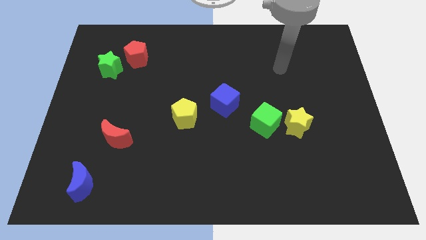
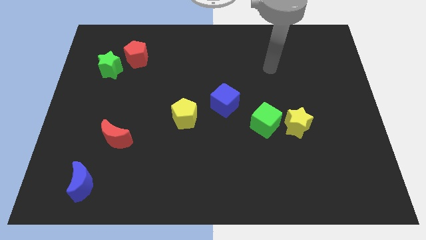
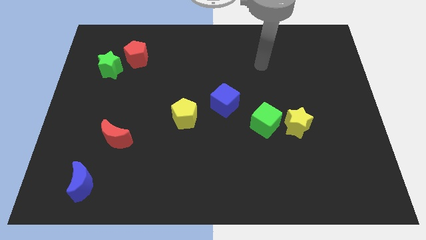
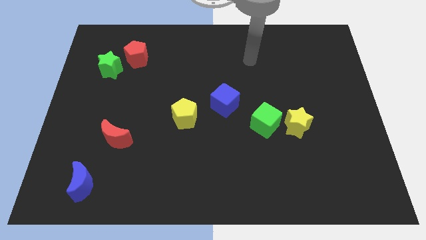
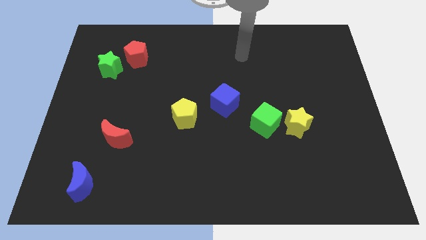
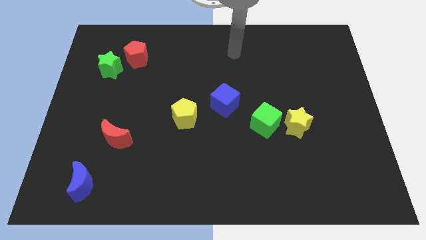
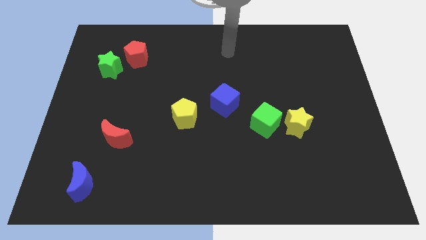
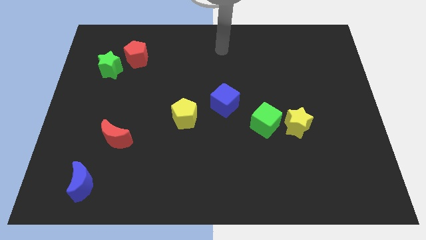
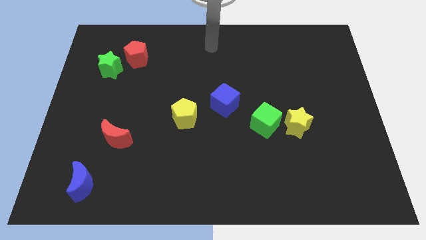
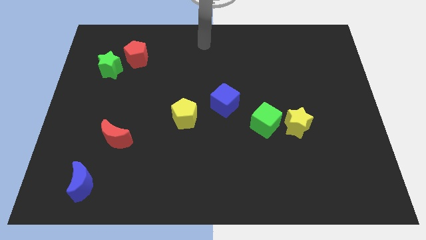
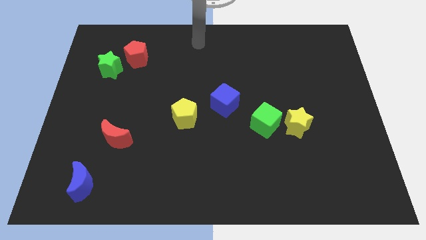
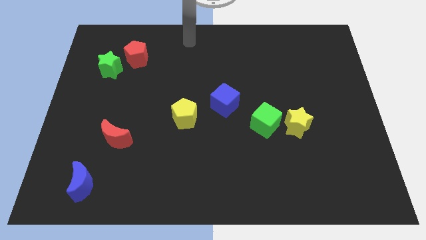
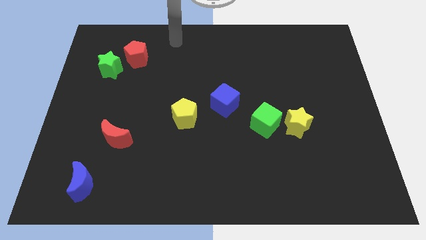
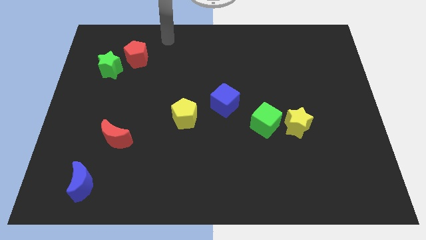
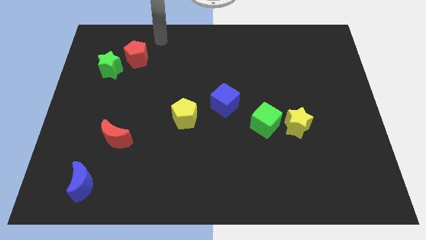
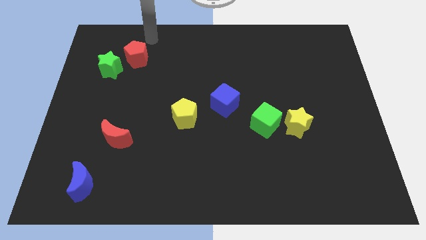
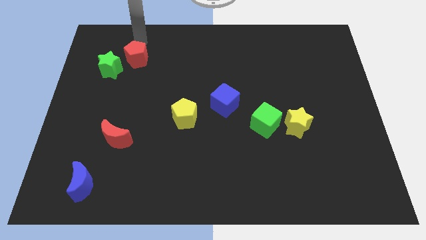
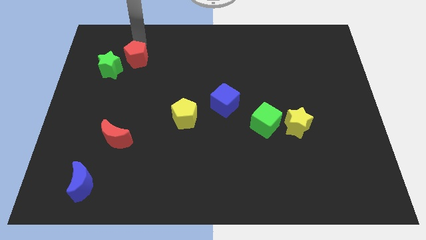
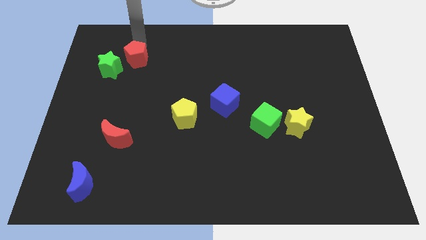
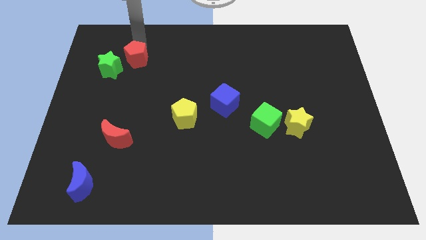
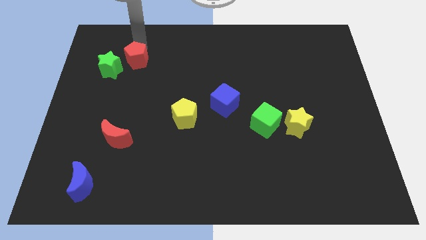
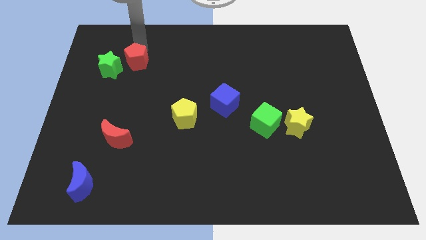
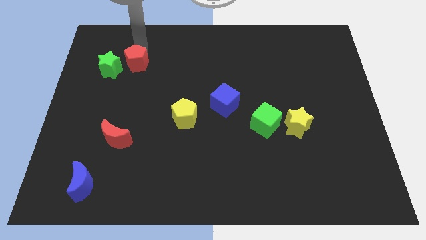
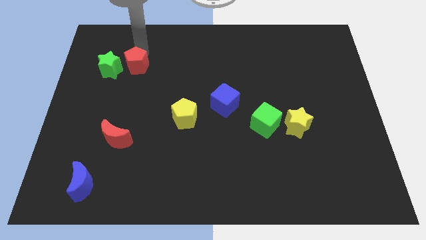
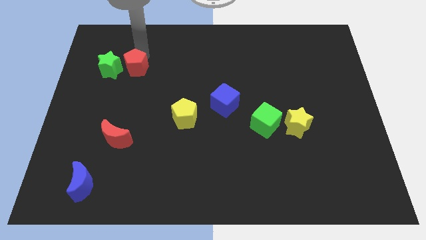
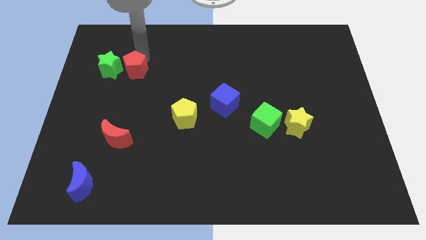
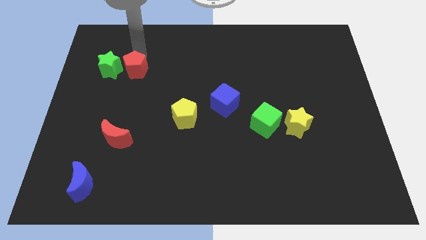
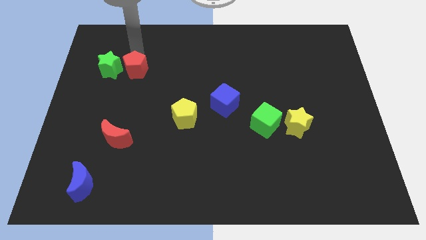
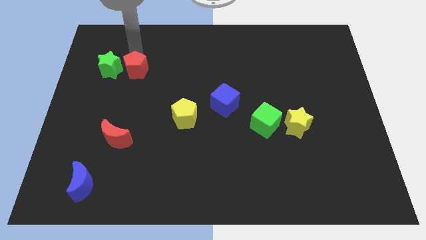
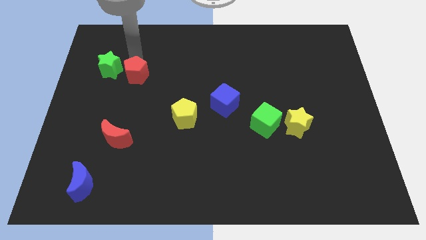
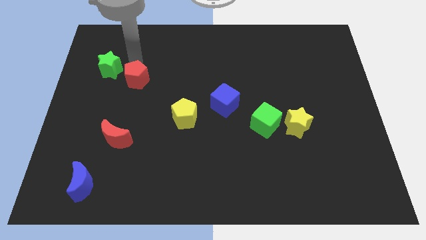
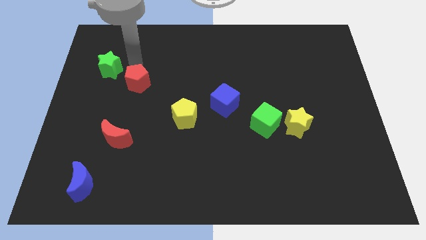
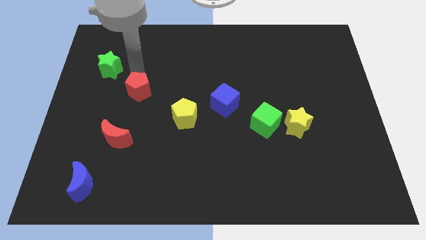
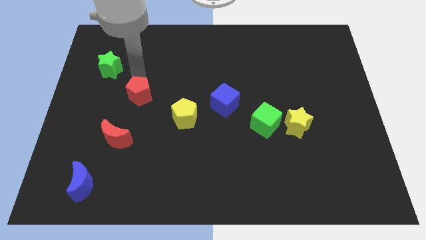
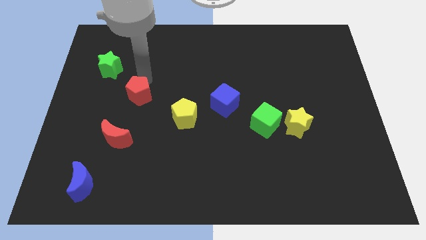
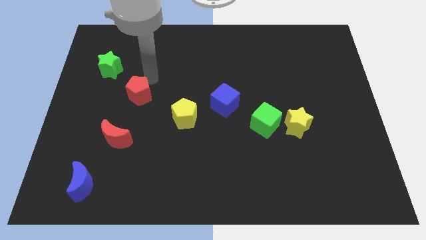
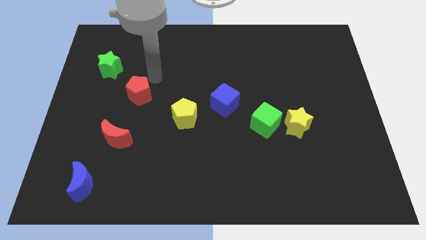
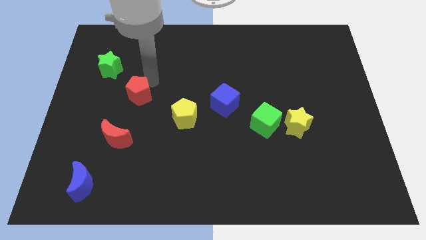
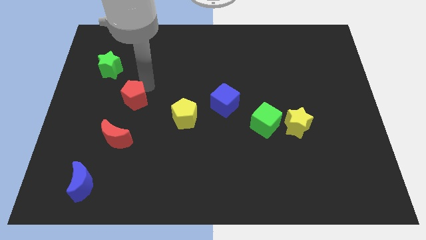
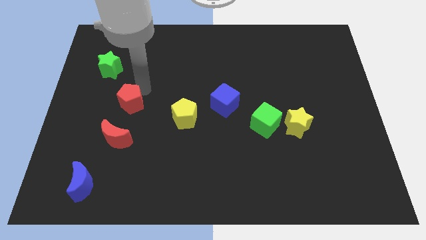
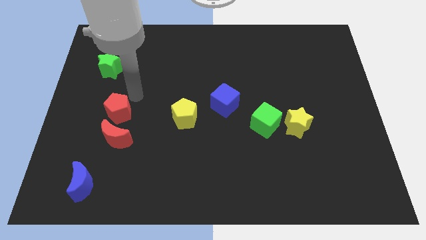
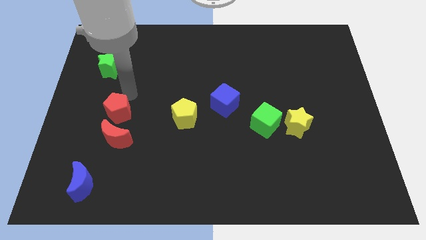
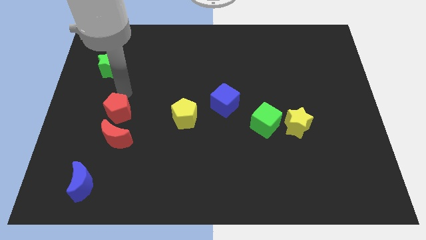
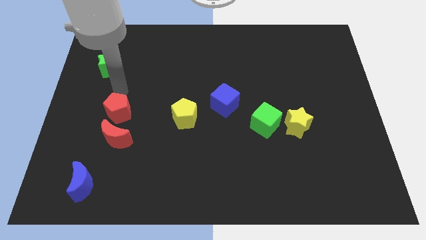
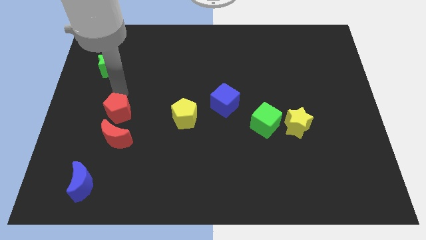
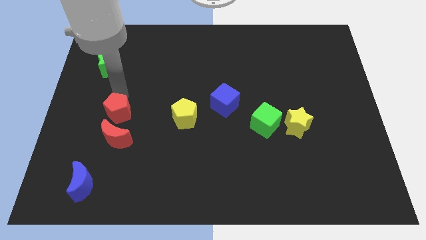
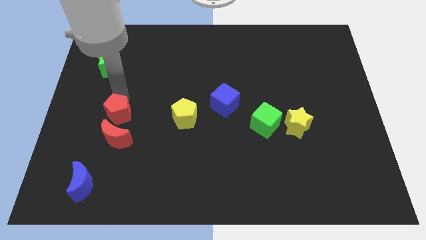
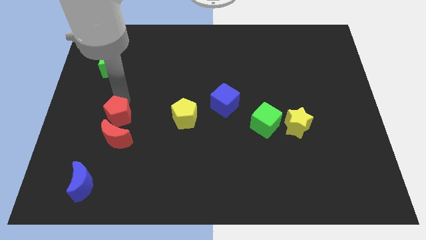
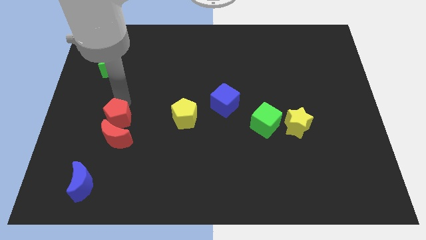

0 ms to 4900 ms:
move the red pentagon towards the red moon

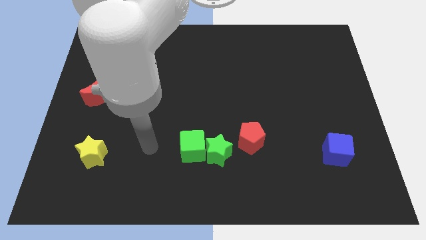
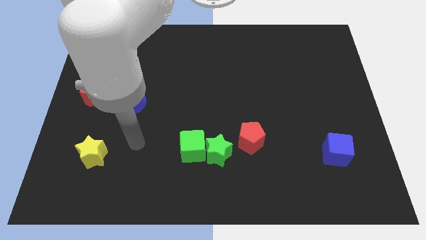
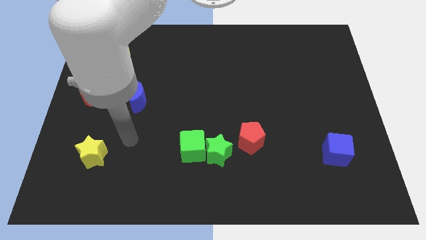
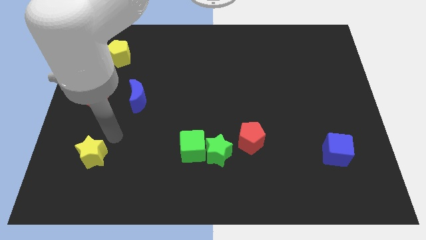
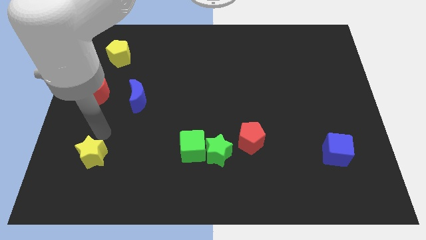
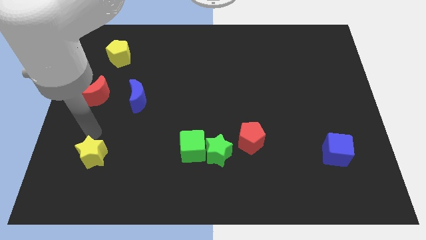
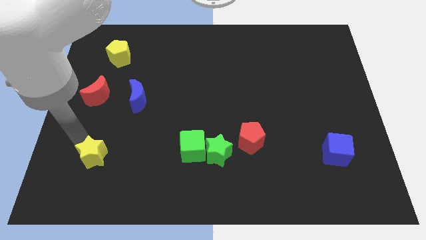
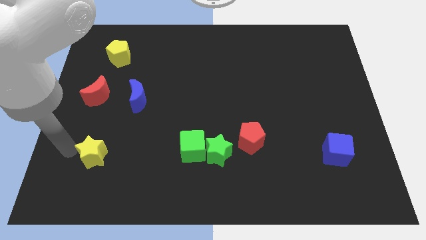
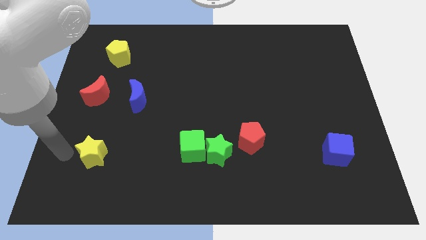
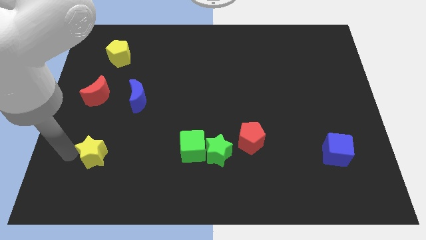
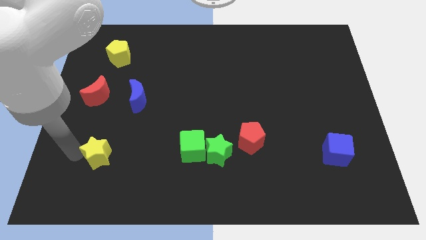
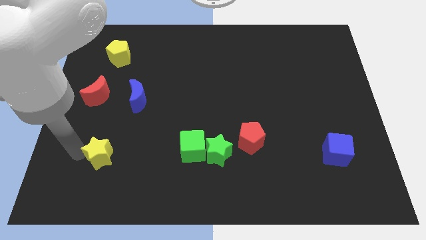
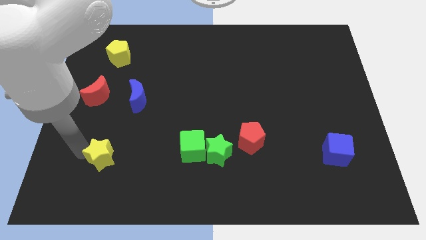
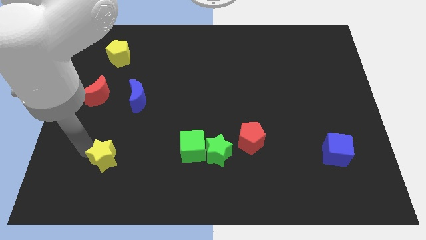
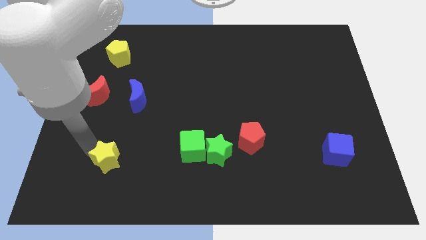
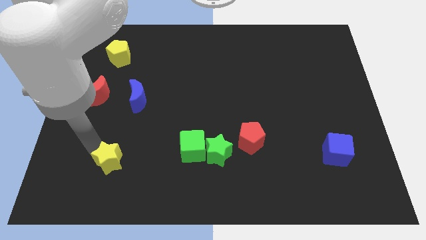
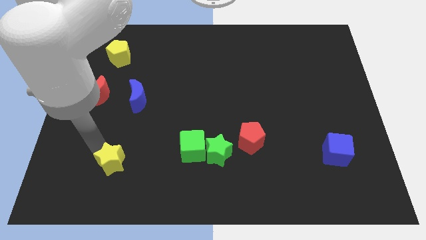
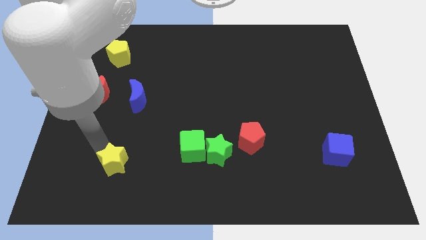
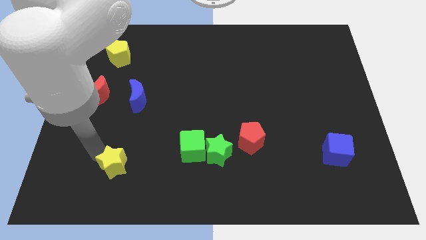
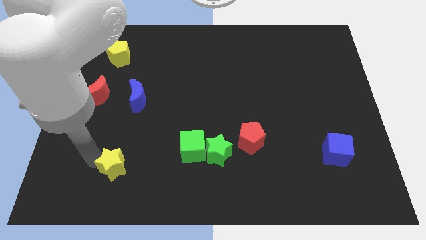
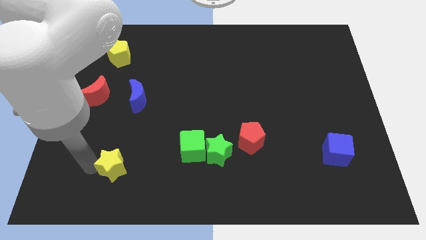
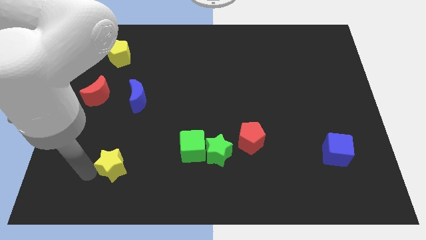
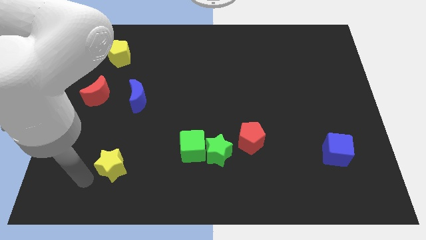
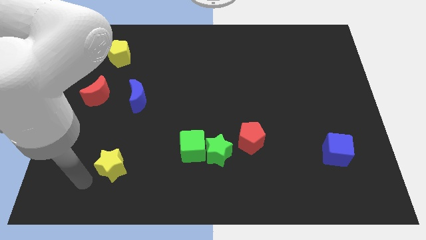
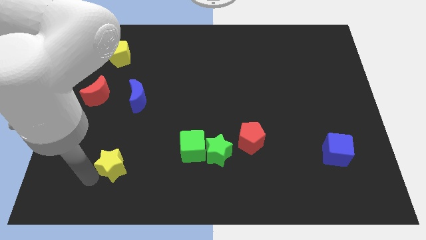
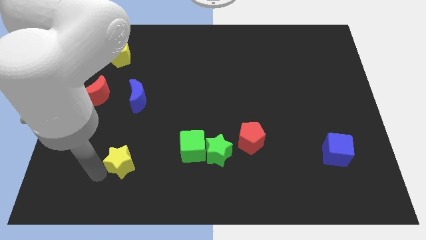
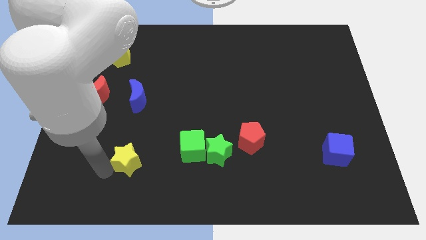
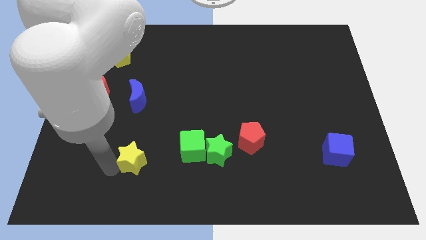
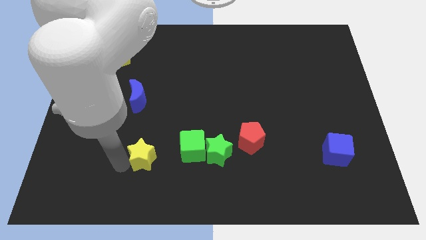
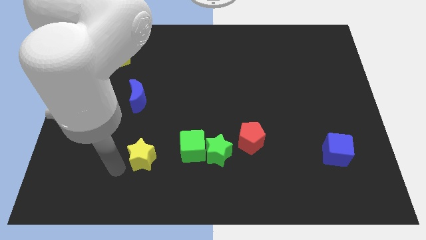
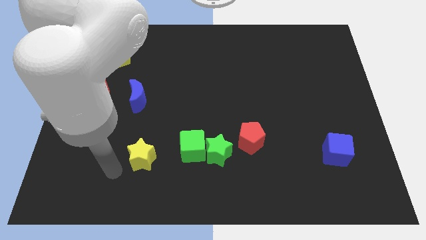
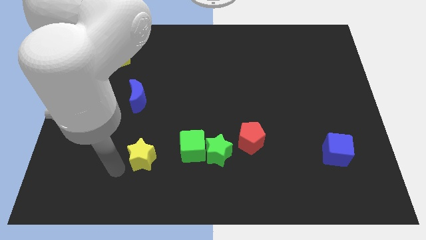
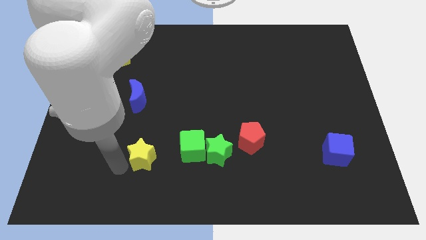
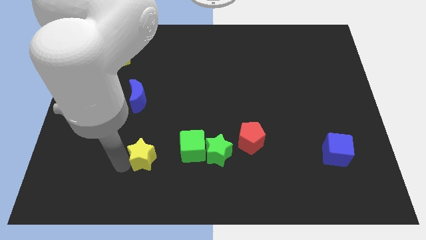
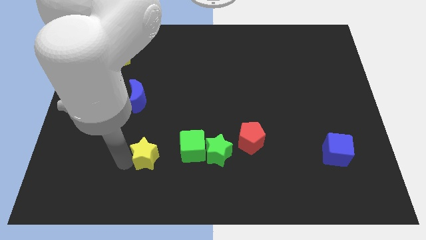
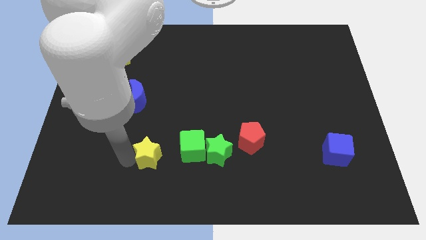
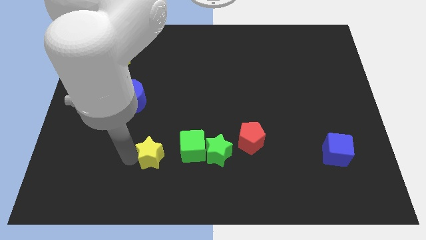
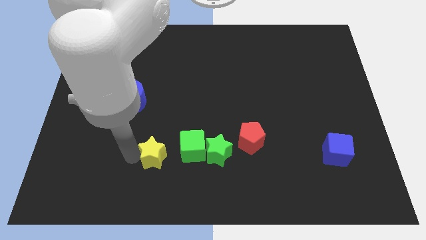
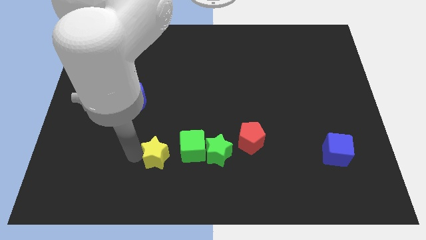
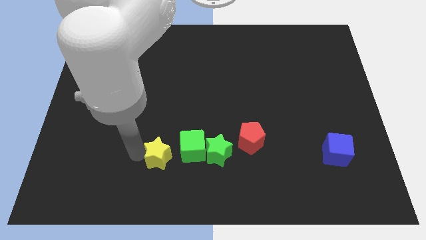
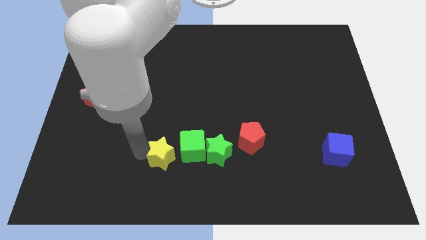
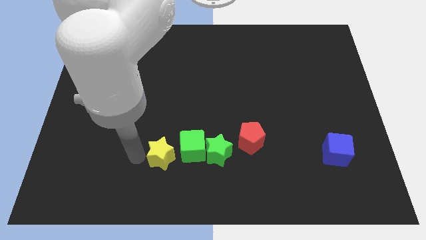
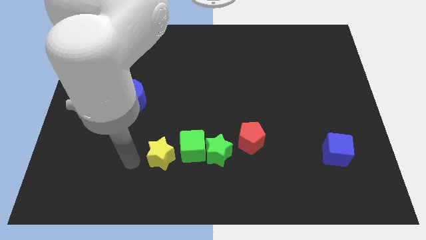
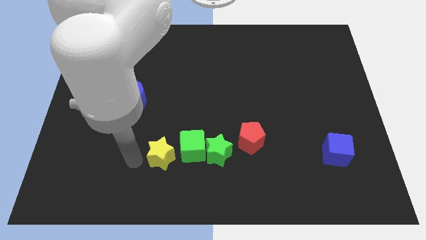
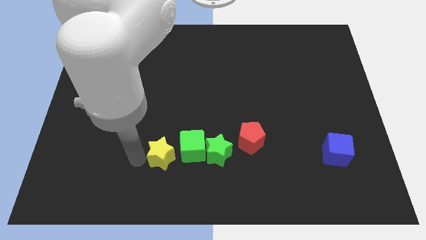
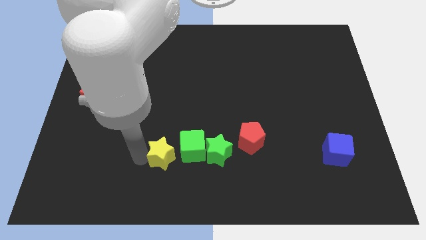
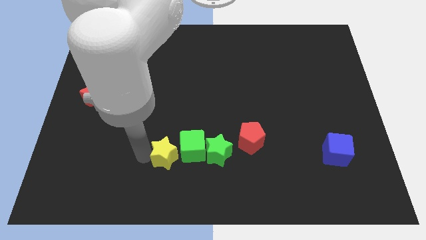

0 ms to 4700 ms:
move the yellow star close to the green cube
